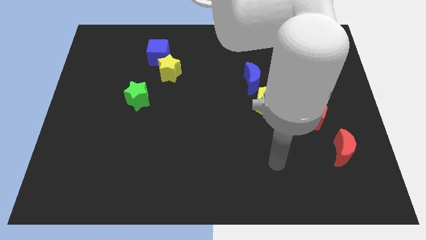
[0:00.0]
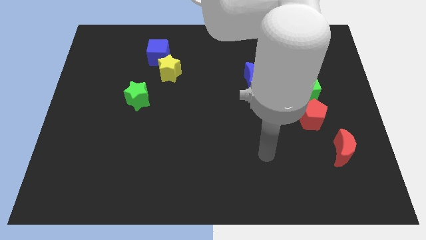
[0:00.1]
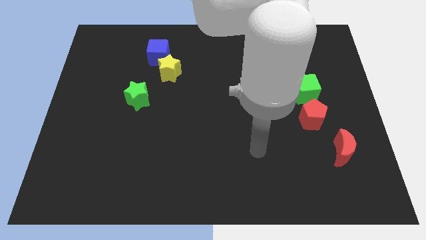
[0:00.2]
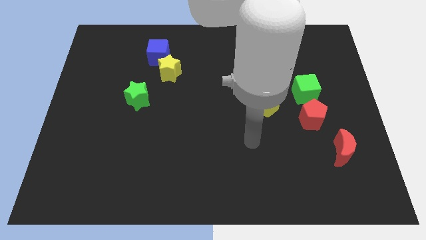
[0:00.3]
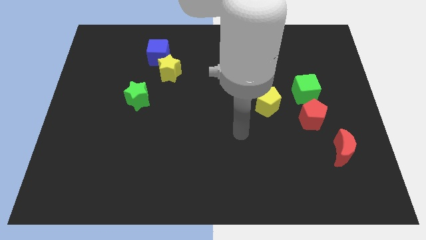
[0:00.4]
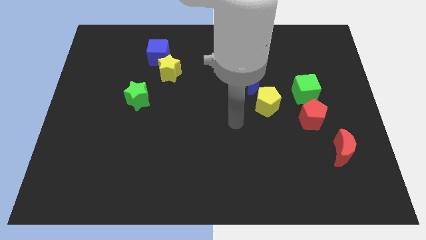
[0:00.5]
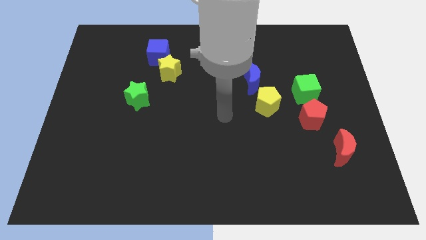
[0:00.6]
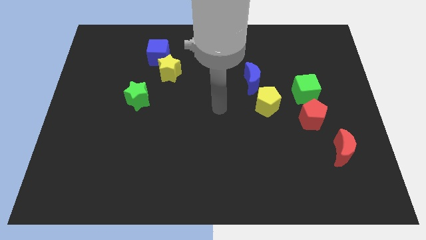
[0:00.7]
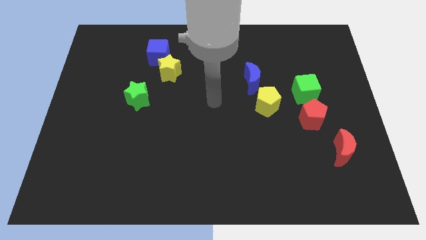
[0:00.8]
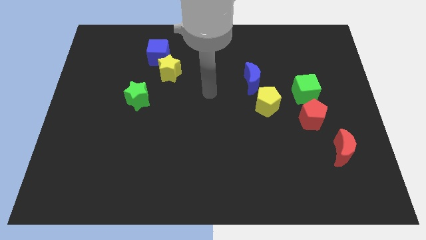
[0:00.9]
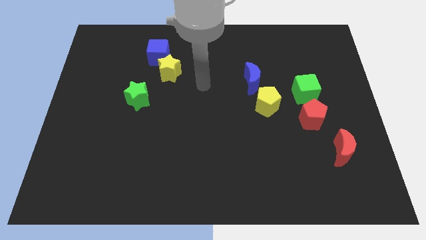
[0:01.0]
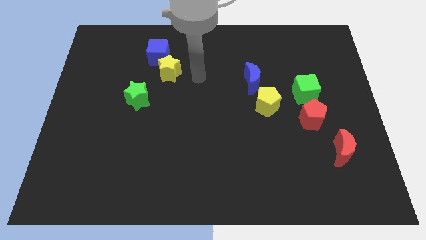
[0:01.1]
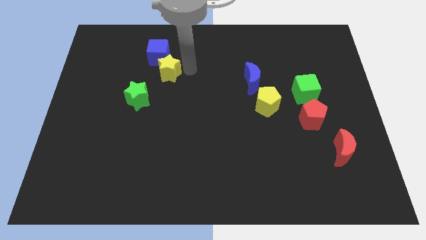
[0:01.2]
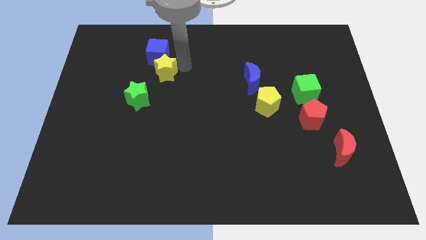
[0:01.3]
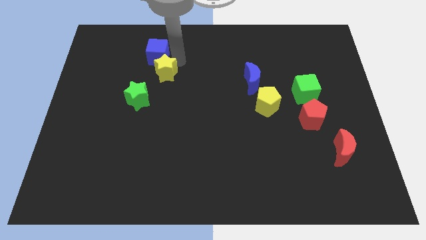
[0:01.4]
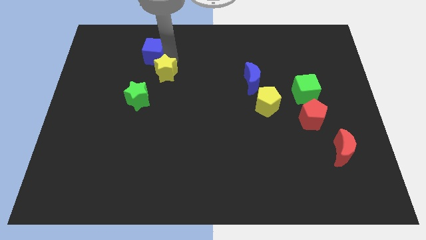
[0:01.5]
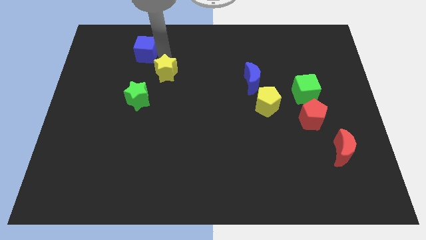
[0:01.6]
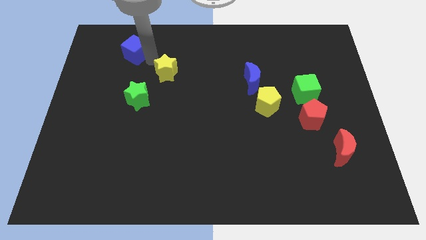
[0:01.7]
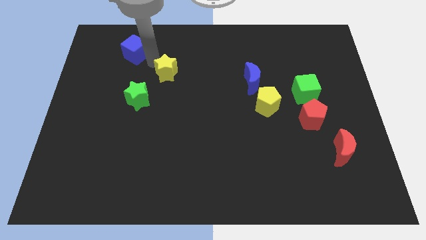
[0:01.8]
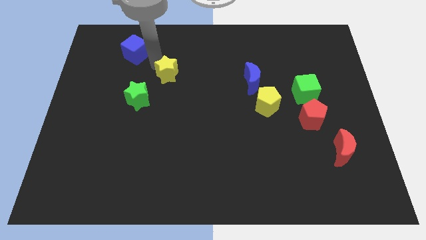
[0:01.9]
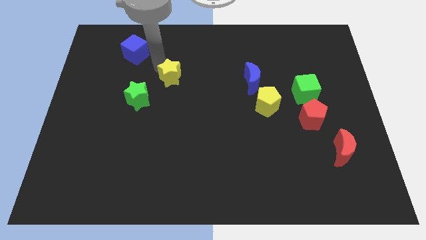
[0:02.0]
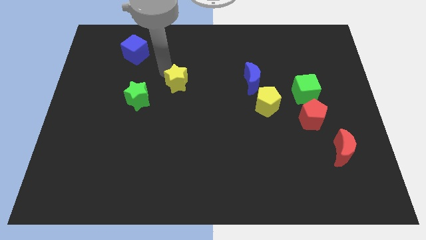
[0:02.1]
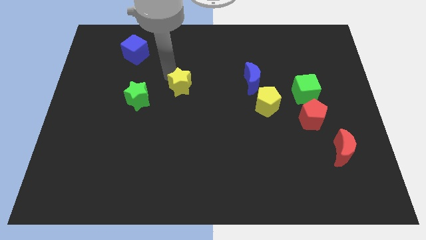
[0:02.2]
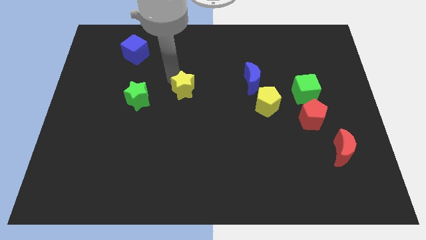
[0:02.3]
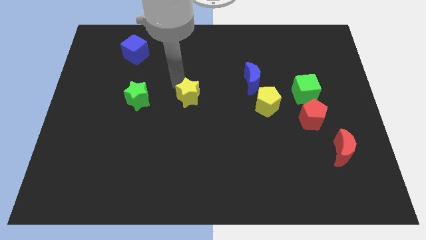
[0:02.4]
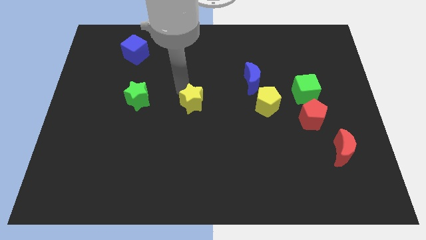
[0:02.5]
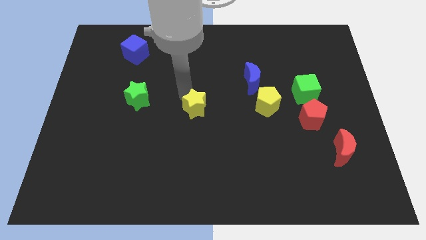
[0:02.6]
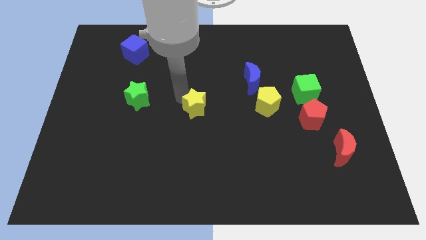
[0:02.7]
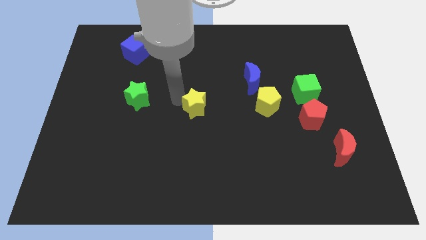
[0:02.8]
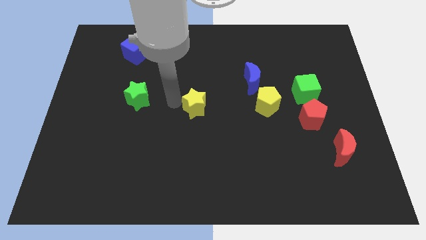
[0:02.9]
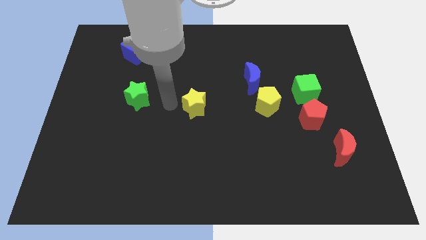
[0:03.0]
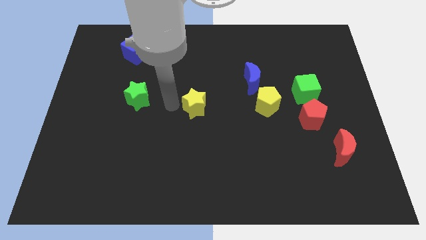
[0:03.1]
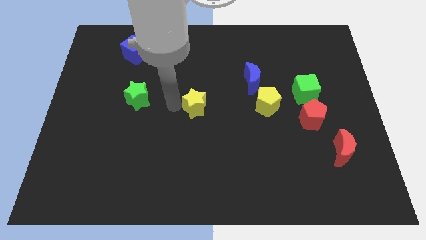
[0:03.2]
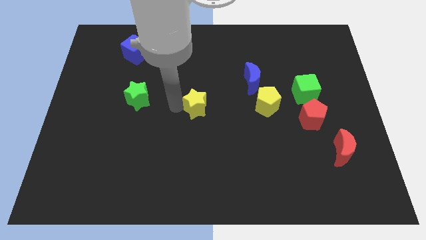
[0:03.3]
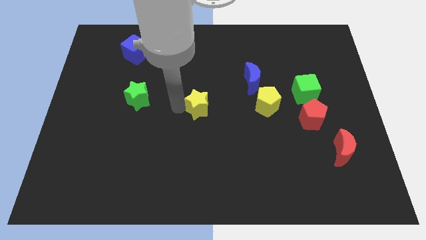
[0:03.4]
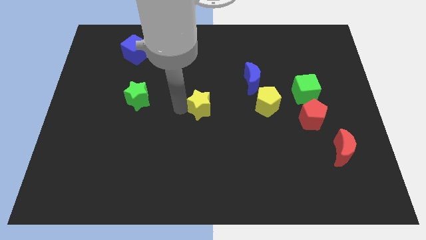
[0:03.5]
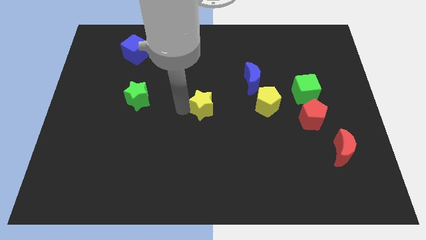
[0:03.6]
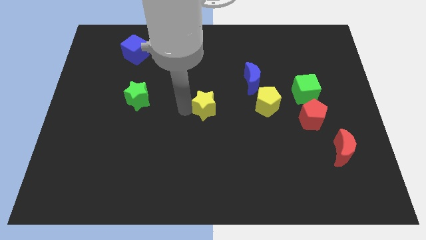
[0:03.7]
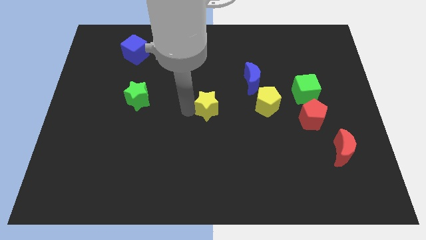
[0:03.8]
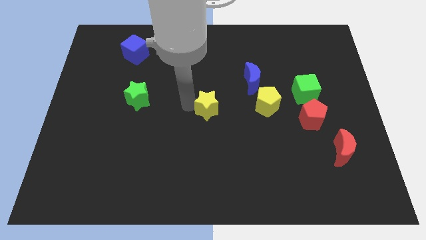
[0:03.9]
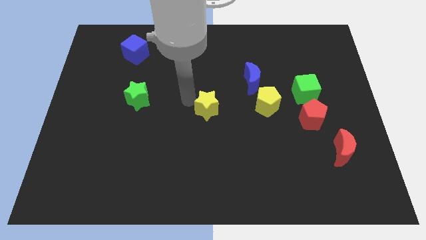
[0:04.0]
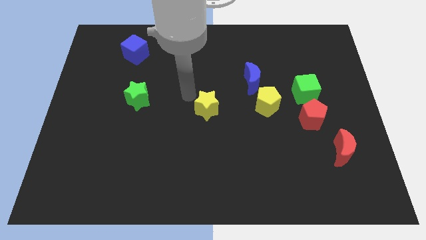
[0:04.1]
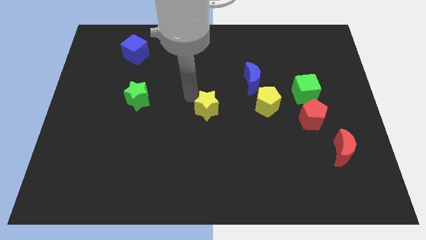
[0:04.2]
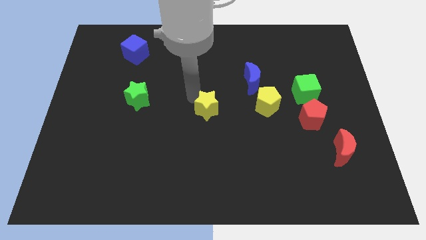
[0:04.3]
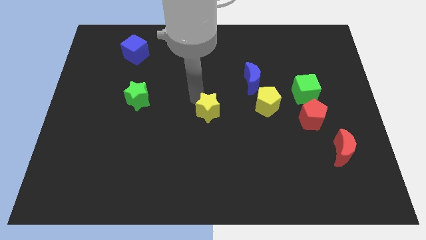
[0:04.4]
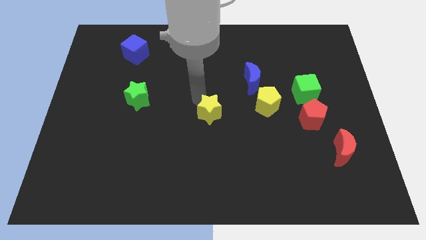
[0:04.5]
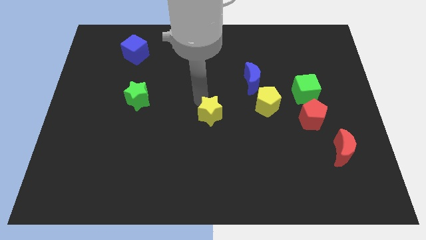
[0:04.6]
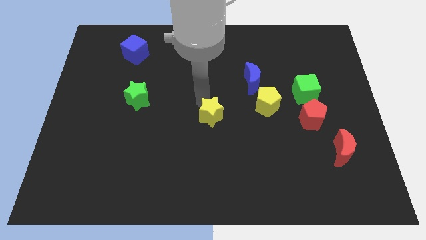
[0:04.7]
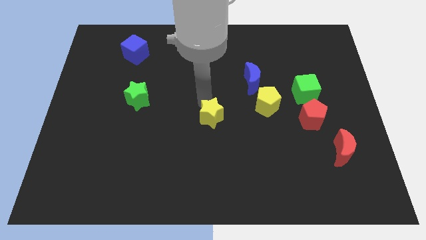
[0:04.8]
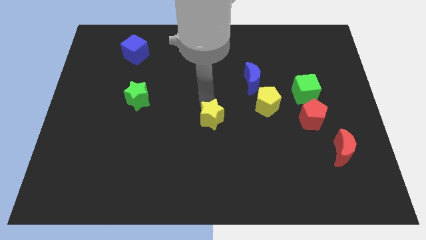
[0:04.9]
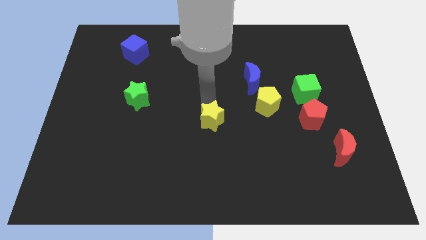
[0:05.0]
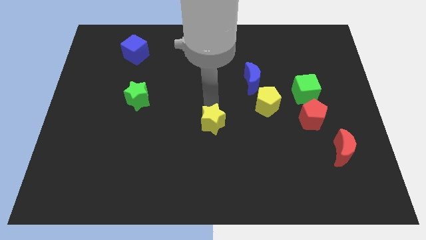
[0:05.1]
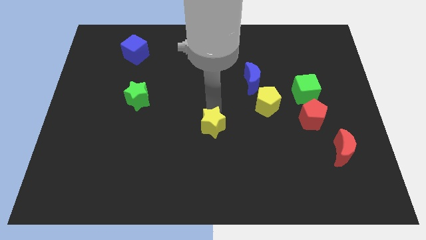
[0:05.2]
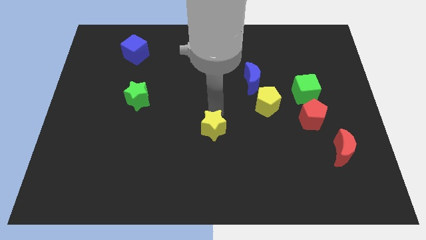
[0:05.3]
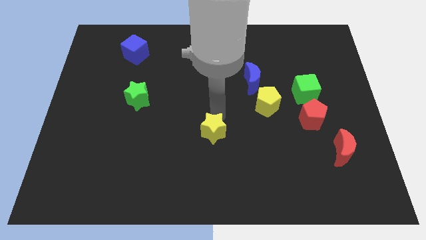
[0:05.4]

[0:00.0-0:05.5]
slide the yellow star down and then right

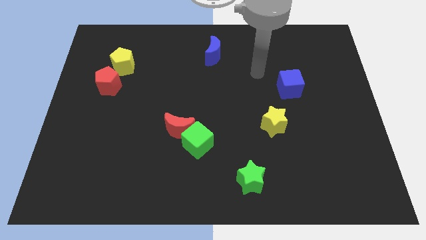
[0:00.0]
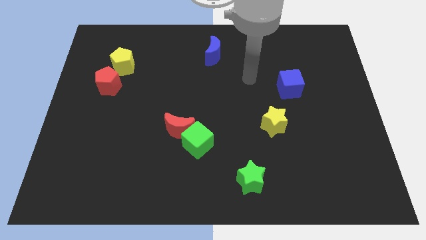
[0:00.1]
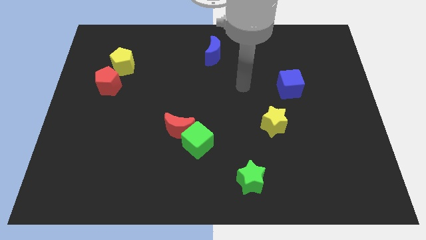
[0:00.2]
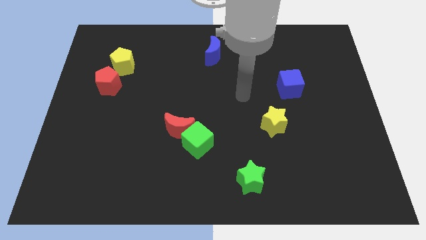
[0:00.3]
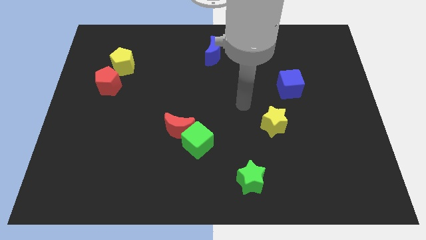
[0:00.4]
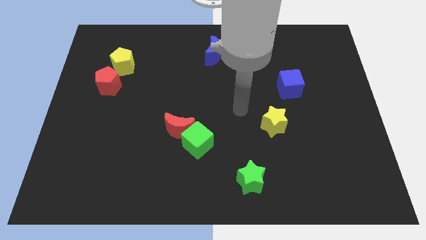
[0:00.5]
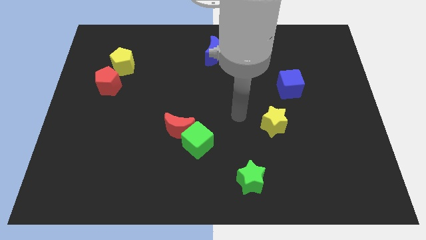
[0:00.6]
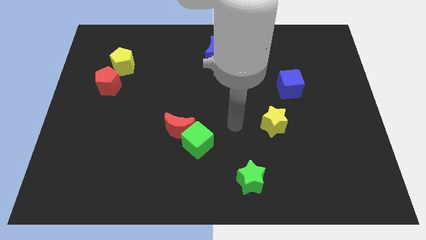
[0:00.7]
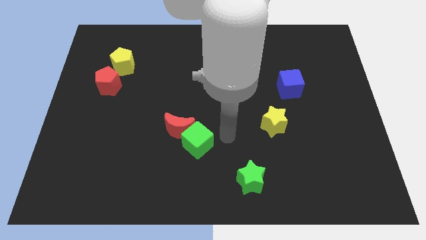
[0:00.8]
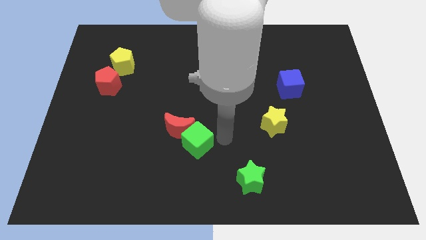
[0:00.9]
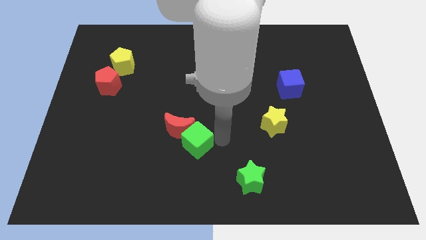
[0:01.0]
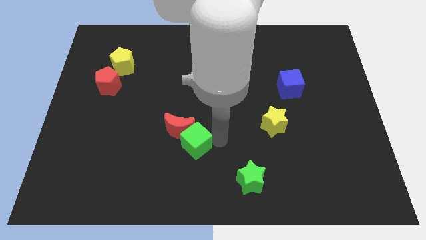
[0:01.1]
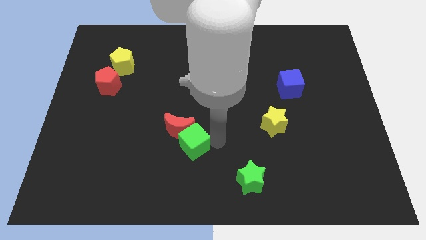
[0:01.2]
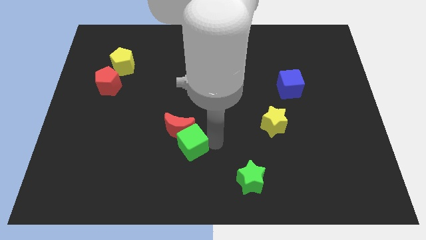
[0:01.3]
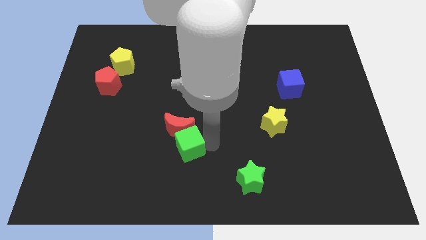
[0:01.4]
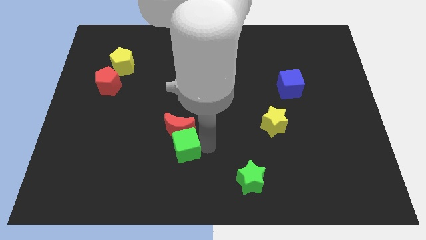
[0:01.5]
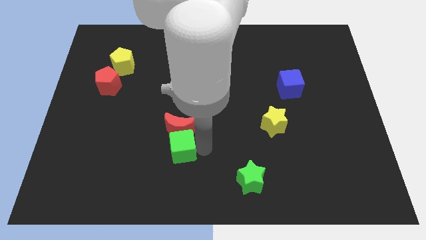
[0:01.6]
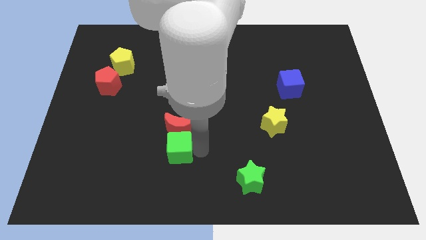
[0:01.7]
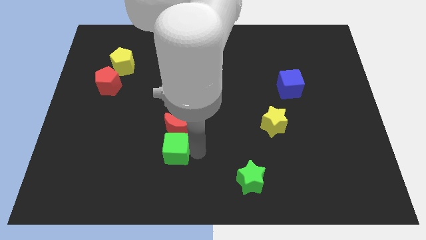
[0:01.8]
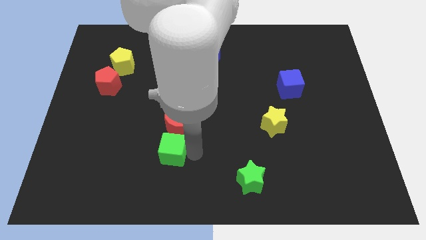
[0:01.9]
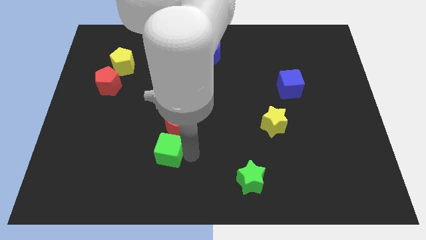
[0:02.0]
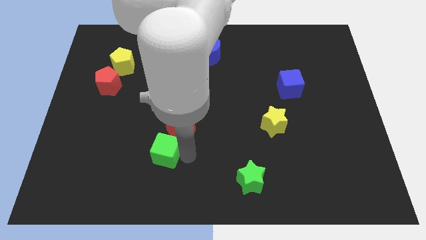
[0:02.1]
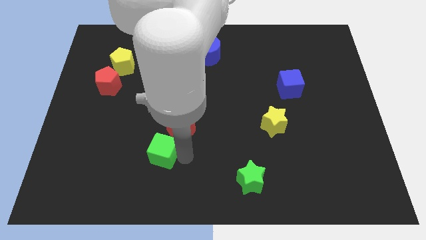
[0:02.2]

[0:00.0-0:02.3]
slightly push the green cube to the left

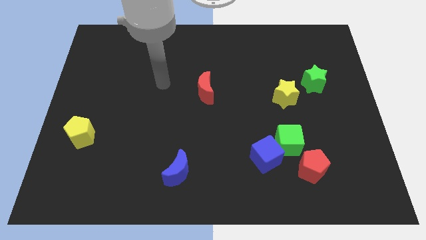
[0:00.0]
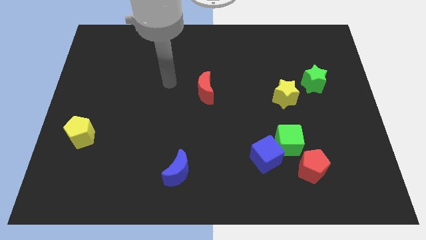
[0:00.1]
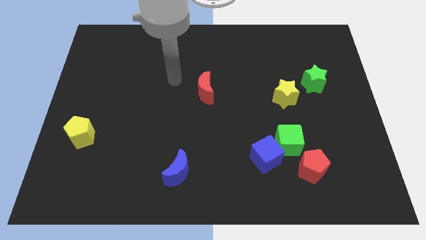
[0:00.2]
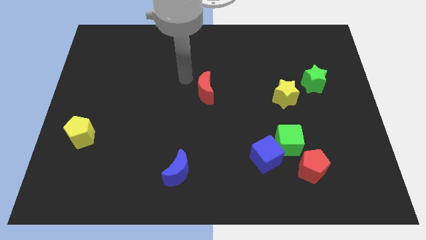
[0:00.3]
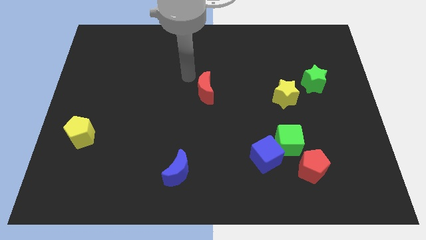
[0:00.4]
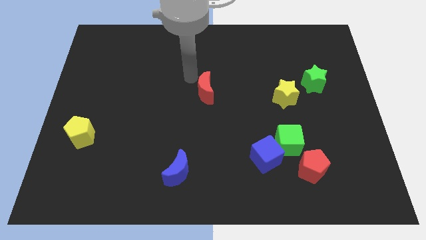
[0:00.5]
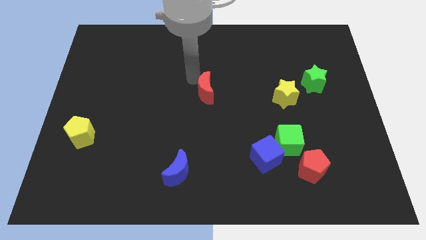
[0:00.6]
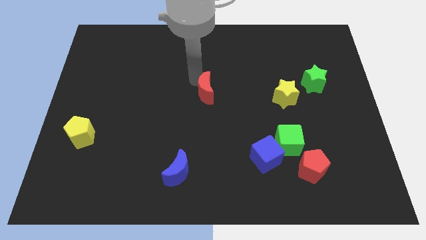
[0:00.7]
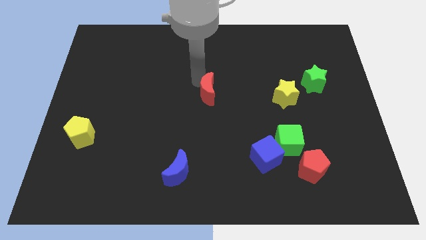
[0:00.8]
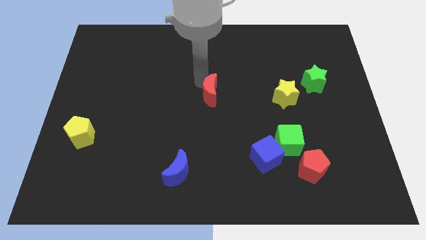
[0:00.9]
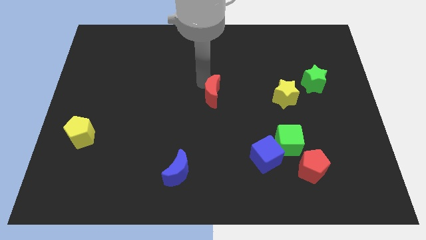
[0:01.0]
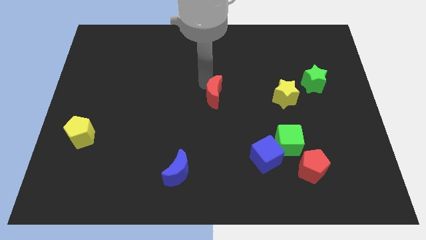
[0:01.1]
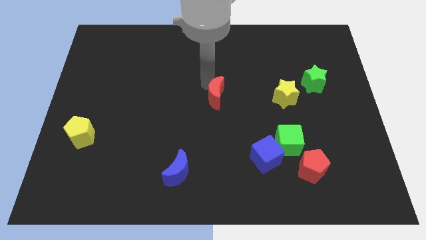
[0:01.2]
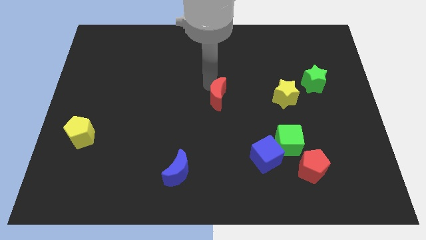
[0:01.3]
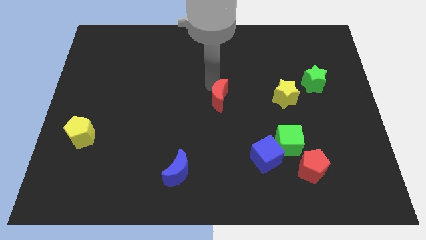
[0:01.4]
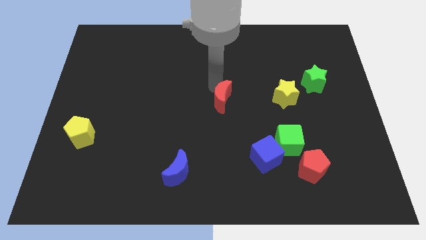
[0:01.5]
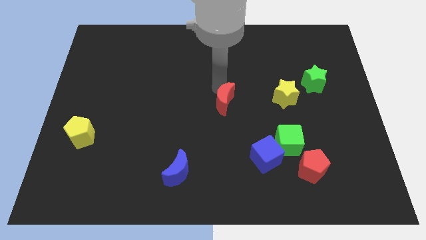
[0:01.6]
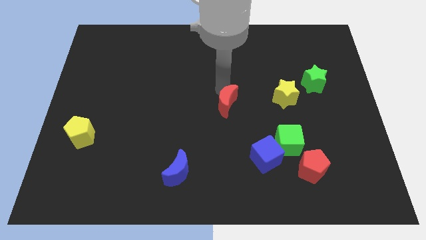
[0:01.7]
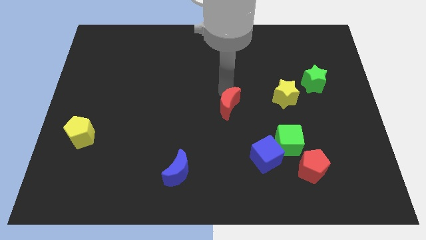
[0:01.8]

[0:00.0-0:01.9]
move the red moon down and to the right diagonally a bit
